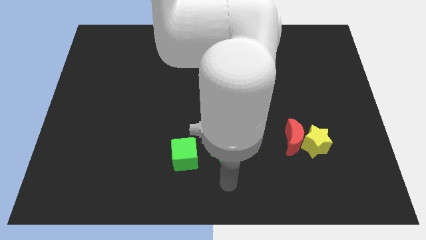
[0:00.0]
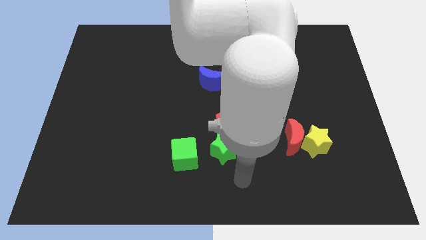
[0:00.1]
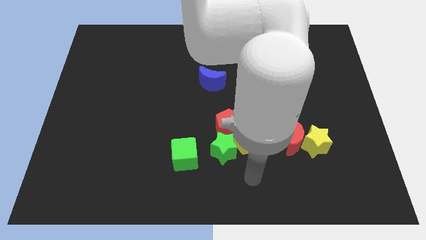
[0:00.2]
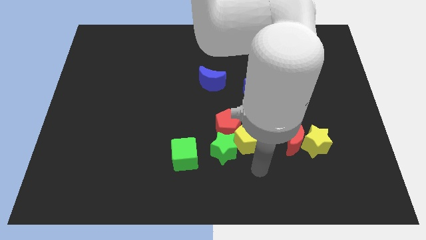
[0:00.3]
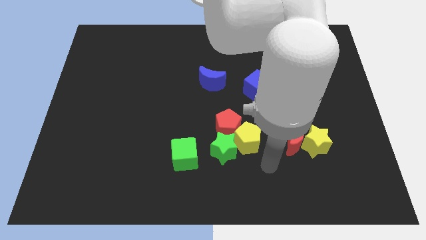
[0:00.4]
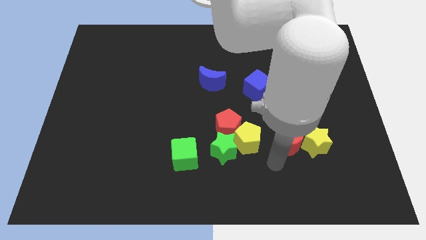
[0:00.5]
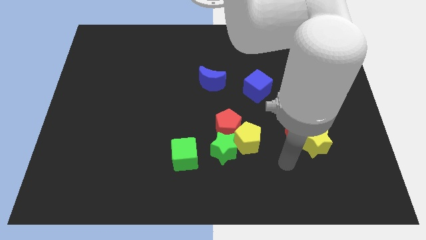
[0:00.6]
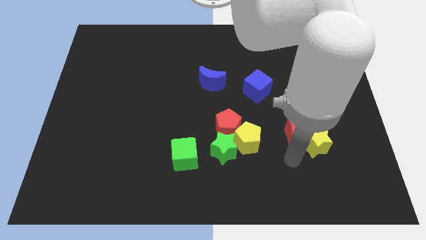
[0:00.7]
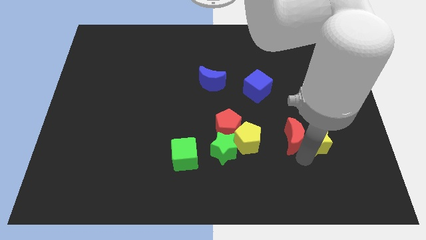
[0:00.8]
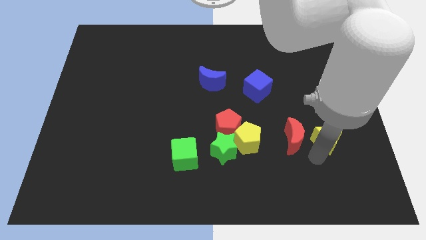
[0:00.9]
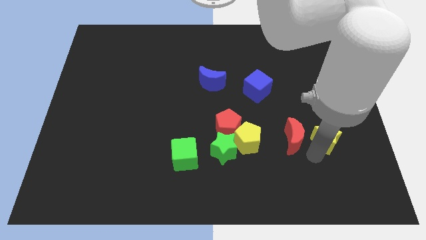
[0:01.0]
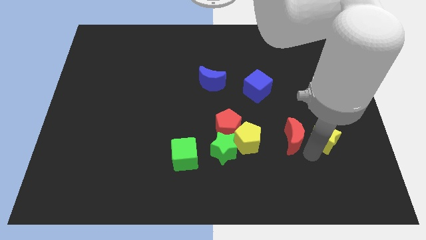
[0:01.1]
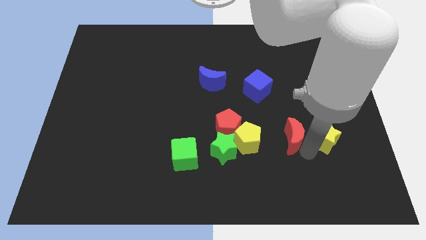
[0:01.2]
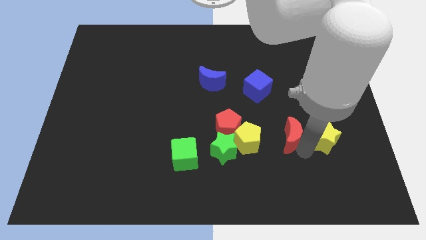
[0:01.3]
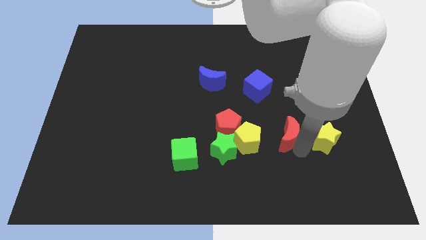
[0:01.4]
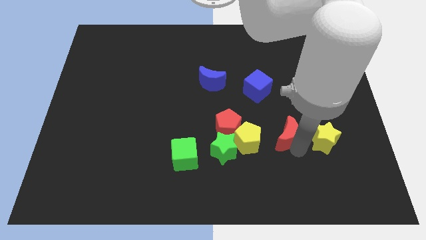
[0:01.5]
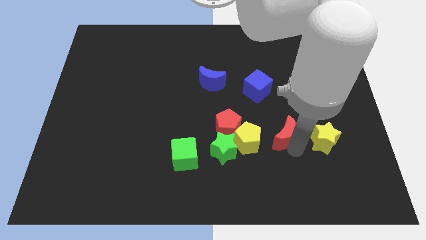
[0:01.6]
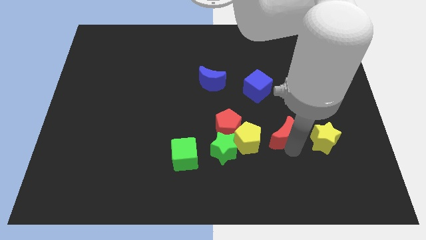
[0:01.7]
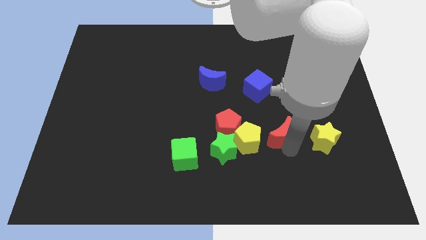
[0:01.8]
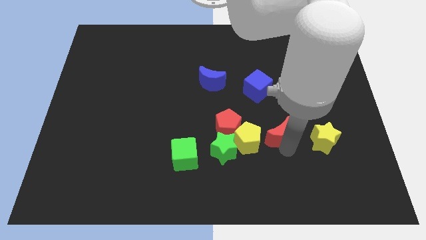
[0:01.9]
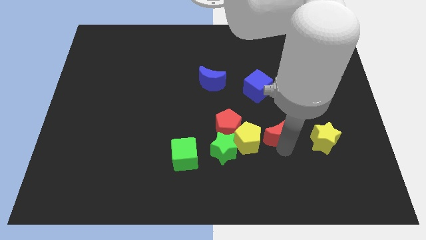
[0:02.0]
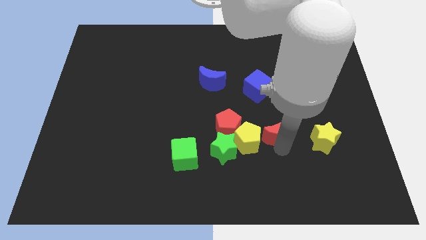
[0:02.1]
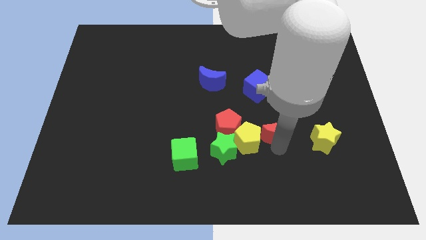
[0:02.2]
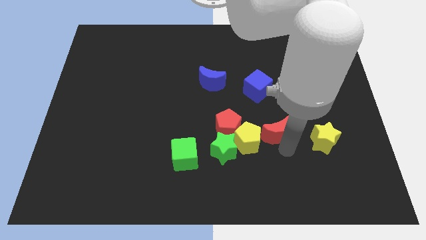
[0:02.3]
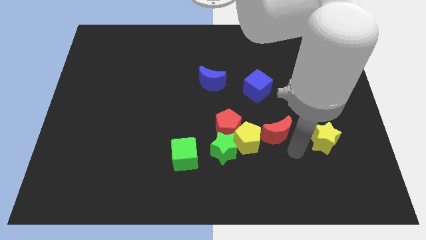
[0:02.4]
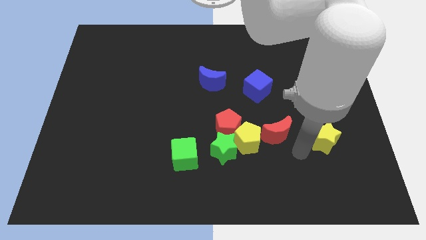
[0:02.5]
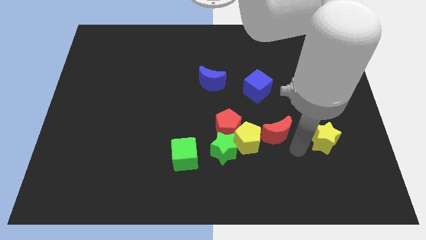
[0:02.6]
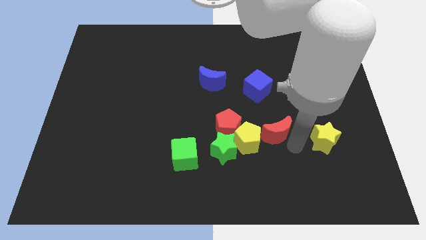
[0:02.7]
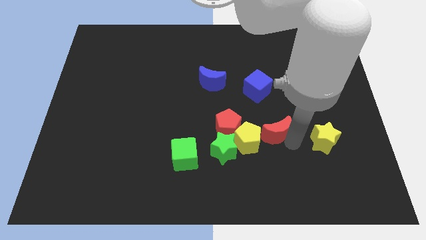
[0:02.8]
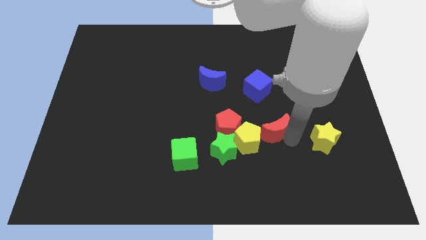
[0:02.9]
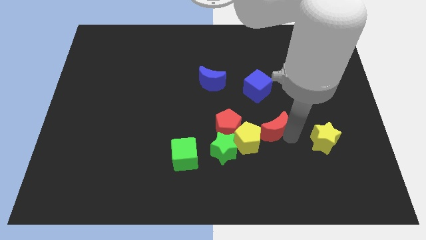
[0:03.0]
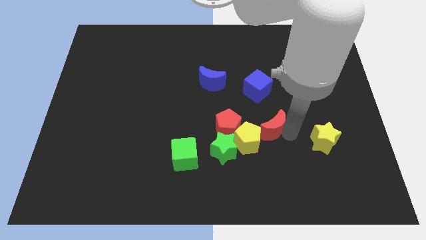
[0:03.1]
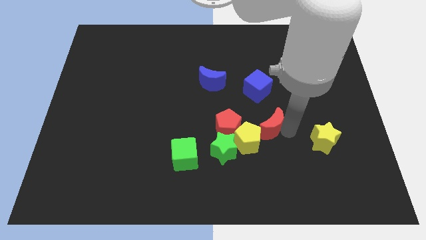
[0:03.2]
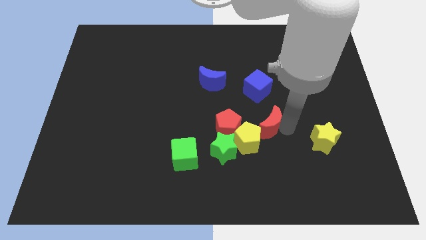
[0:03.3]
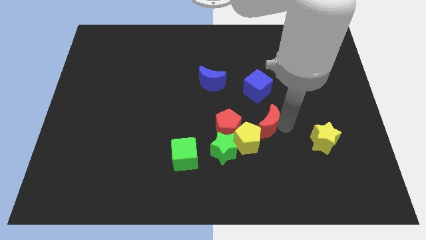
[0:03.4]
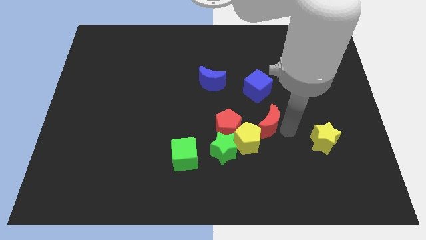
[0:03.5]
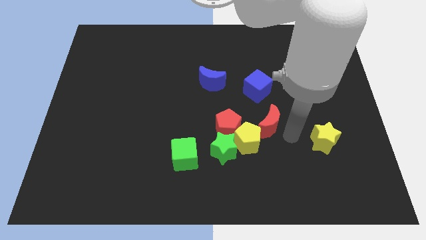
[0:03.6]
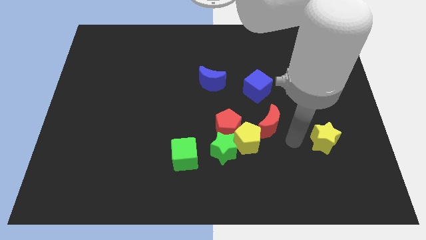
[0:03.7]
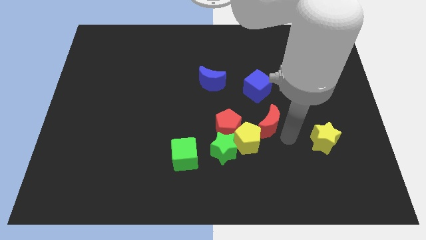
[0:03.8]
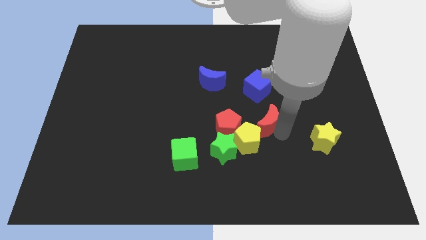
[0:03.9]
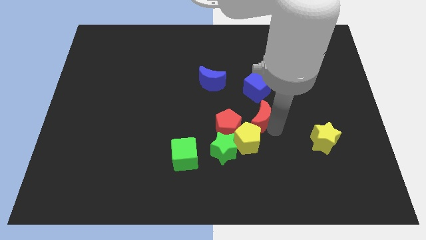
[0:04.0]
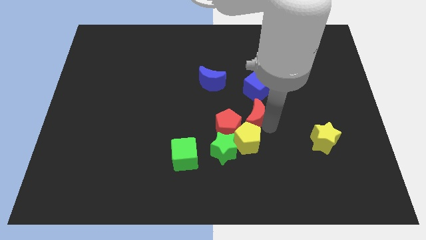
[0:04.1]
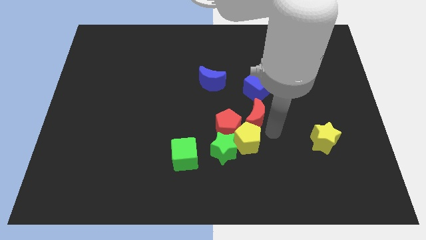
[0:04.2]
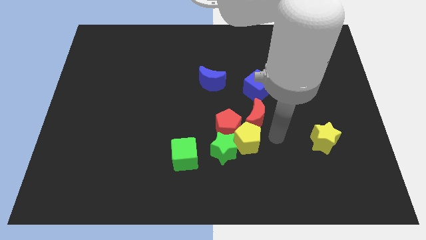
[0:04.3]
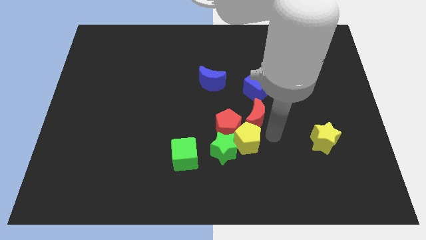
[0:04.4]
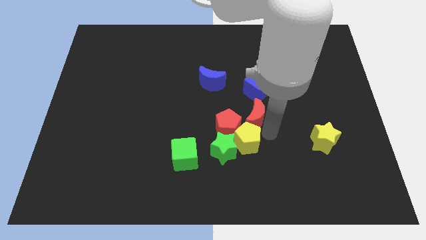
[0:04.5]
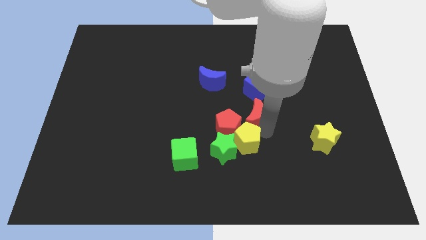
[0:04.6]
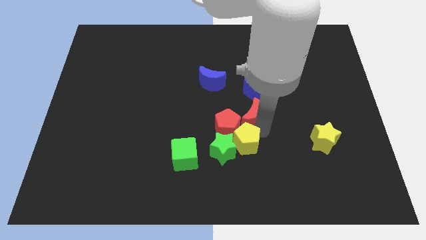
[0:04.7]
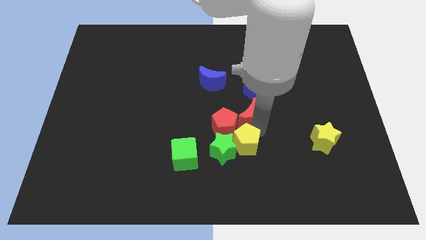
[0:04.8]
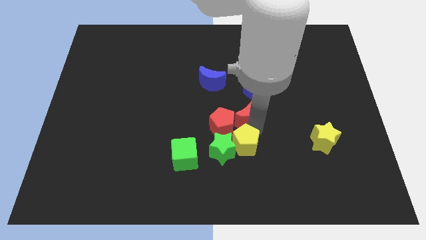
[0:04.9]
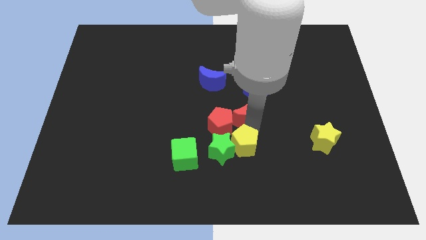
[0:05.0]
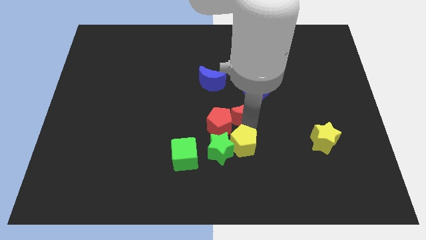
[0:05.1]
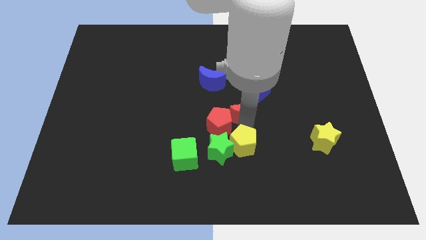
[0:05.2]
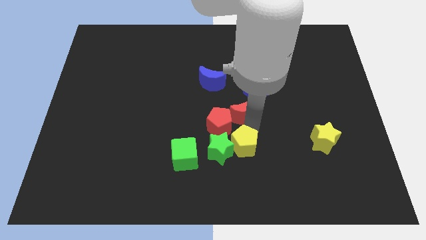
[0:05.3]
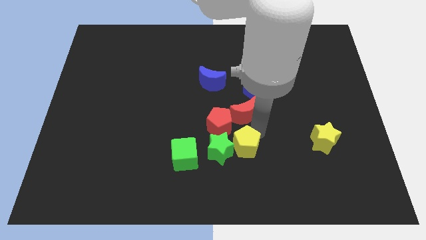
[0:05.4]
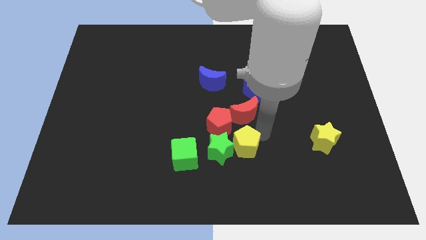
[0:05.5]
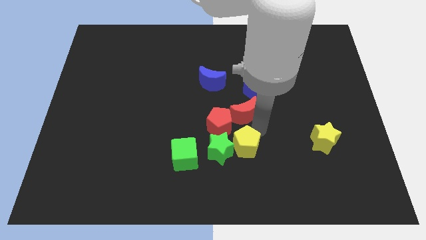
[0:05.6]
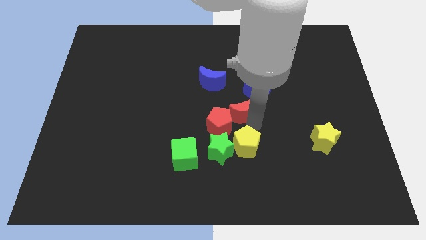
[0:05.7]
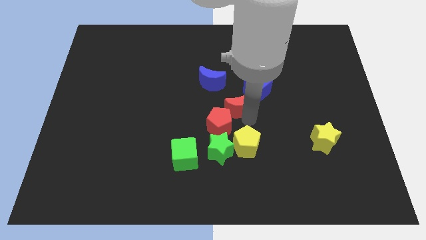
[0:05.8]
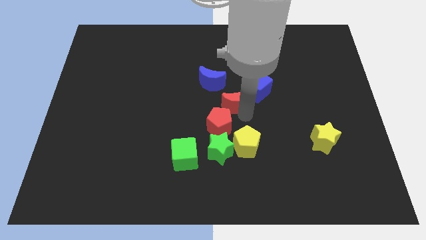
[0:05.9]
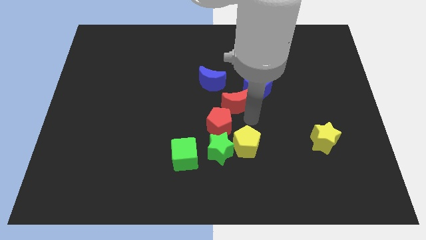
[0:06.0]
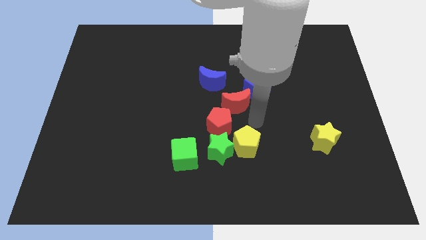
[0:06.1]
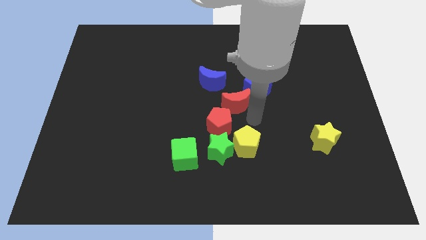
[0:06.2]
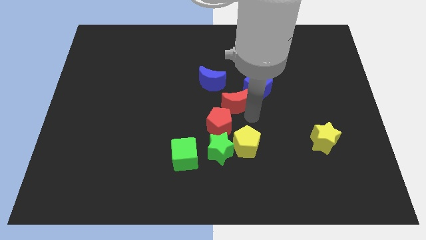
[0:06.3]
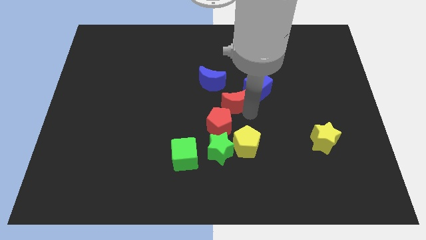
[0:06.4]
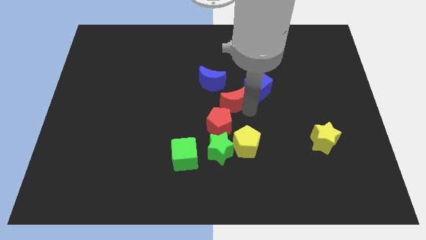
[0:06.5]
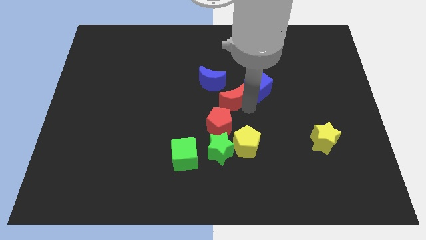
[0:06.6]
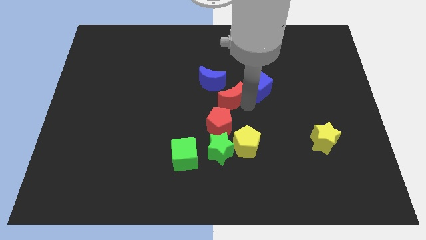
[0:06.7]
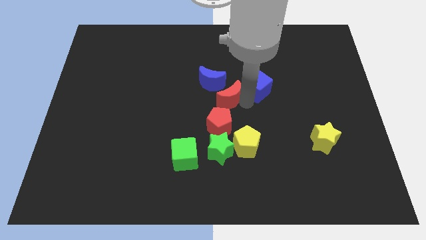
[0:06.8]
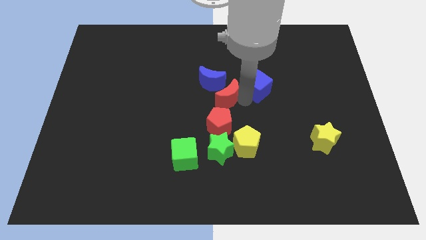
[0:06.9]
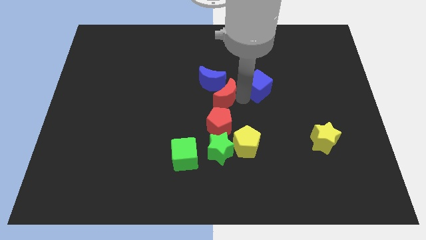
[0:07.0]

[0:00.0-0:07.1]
slide the red moon next to the blue moon

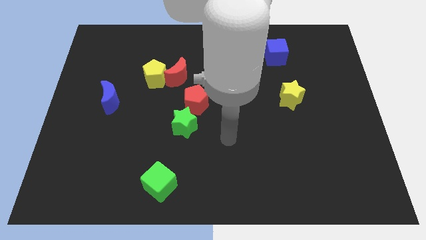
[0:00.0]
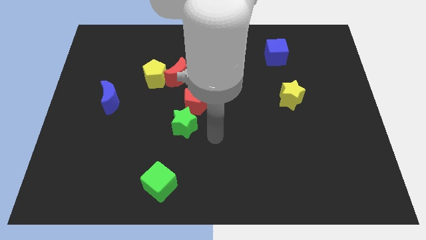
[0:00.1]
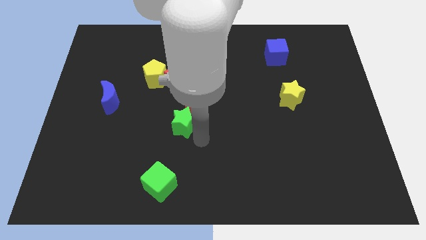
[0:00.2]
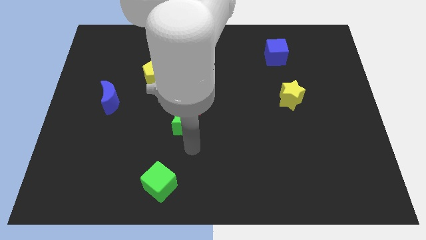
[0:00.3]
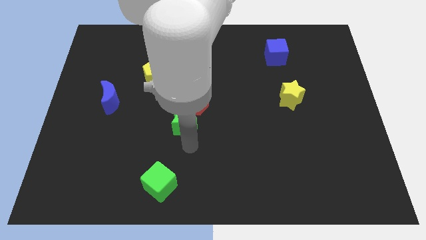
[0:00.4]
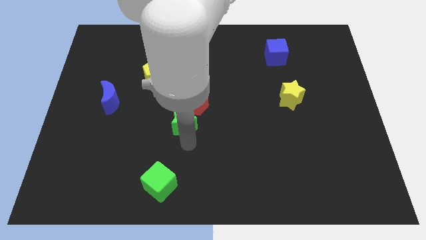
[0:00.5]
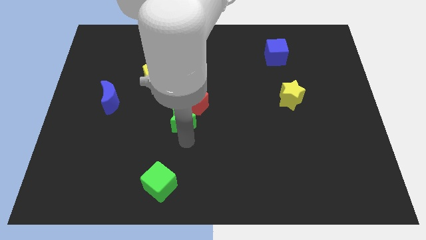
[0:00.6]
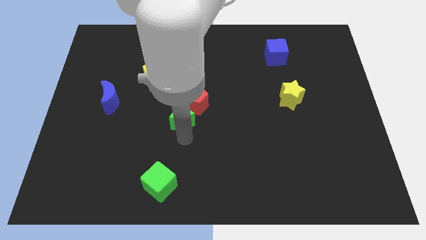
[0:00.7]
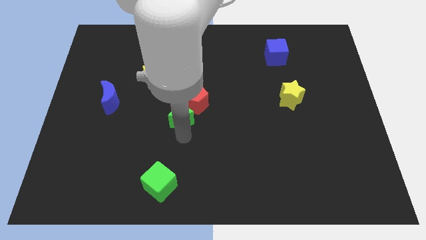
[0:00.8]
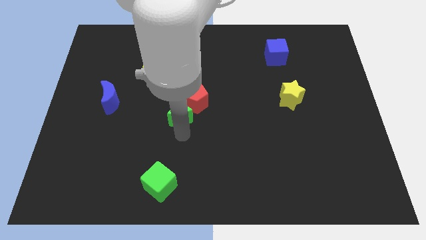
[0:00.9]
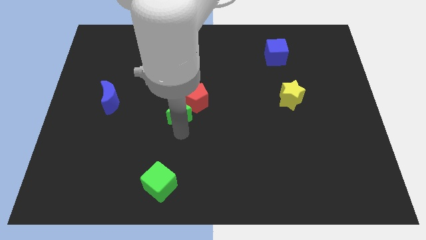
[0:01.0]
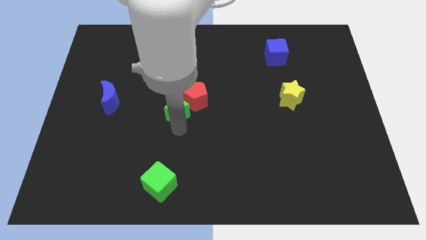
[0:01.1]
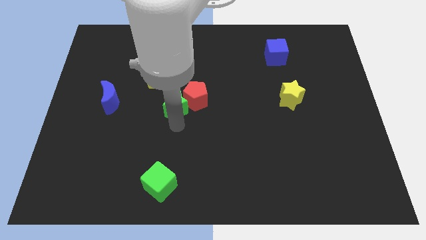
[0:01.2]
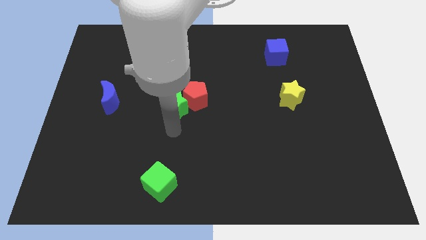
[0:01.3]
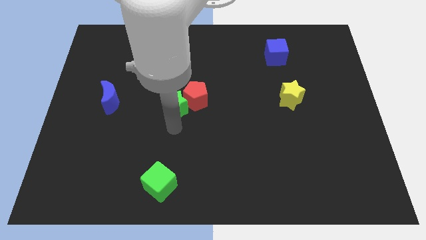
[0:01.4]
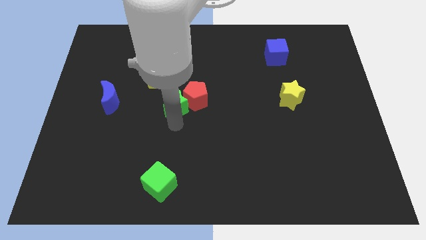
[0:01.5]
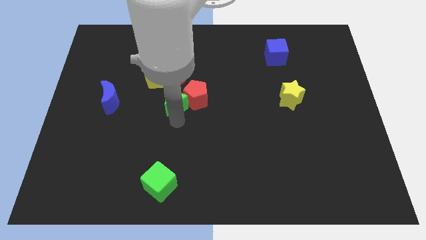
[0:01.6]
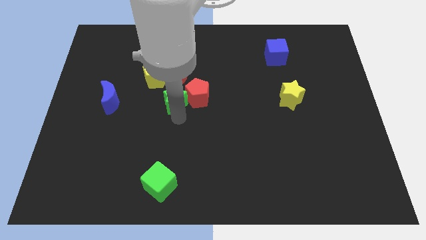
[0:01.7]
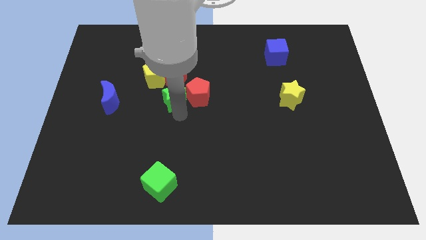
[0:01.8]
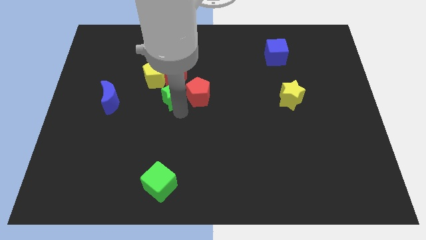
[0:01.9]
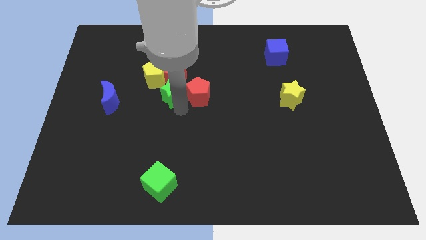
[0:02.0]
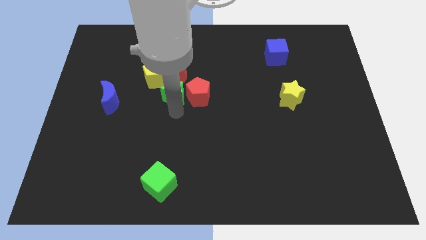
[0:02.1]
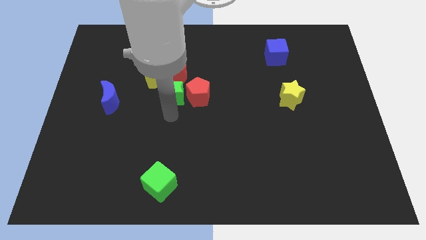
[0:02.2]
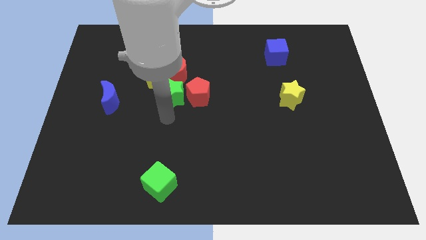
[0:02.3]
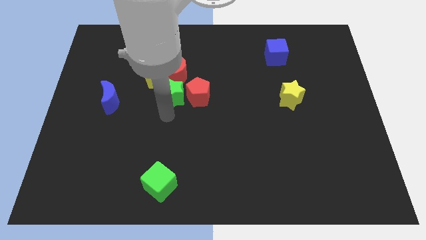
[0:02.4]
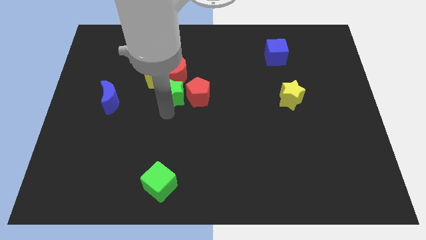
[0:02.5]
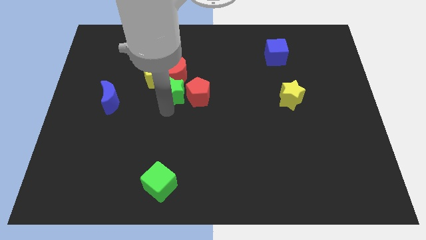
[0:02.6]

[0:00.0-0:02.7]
push the green star to the red moon
